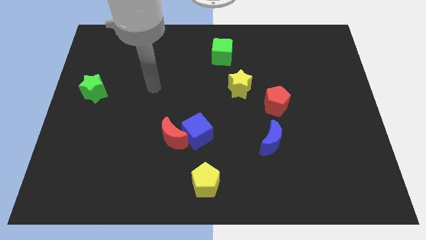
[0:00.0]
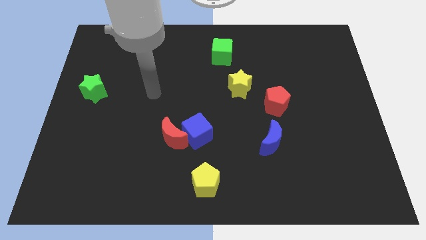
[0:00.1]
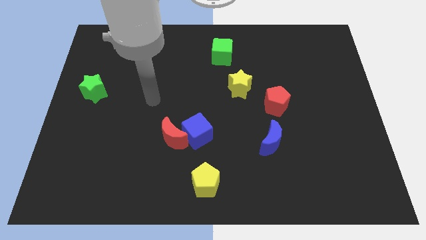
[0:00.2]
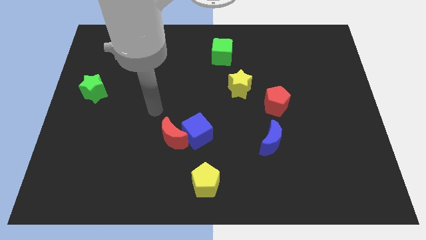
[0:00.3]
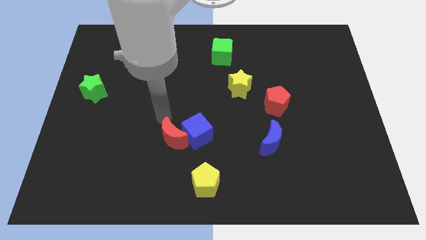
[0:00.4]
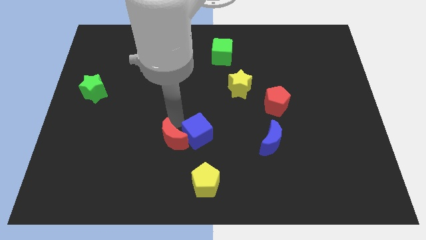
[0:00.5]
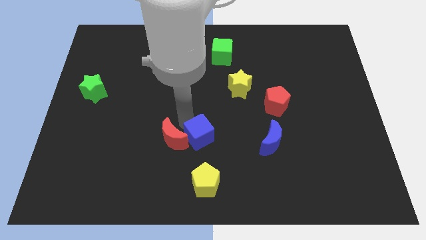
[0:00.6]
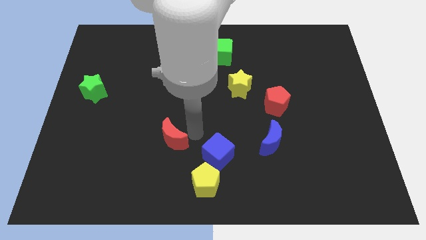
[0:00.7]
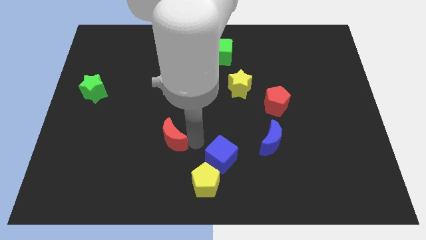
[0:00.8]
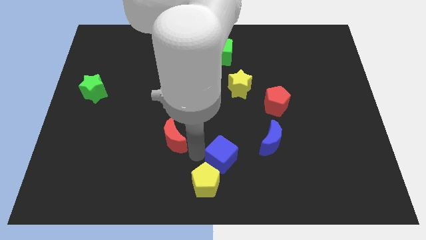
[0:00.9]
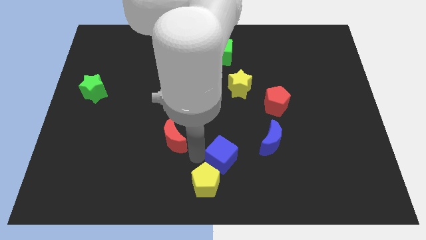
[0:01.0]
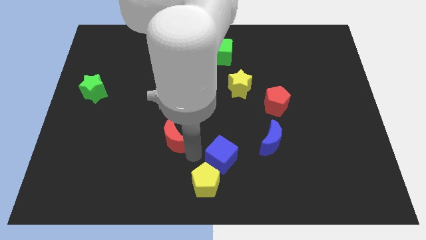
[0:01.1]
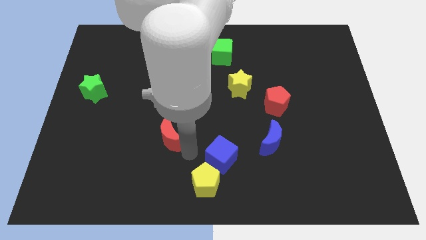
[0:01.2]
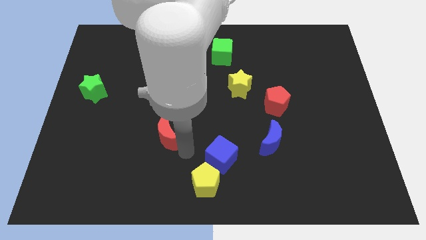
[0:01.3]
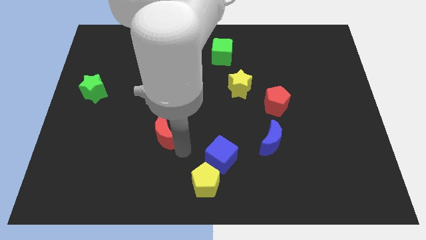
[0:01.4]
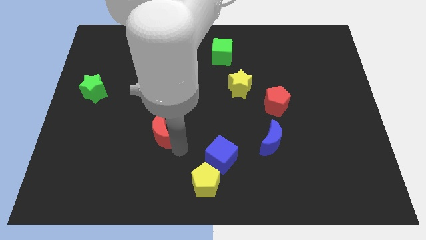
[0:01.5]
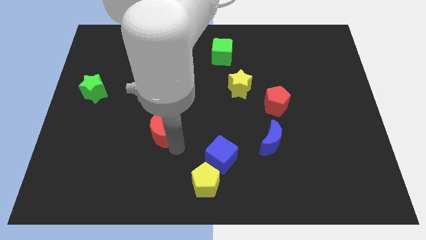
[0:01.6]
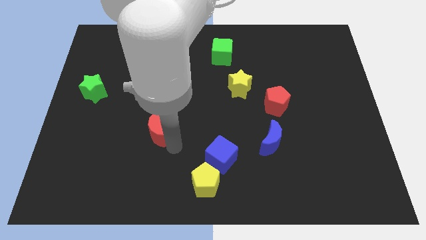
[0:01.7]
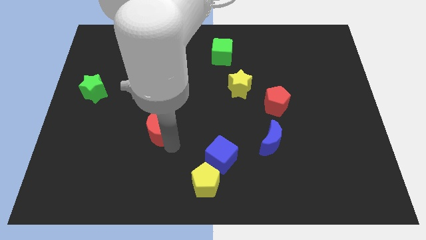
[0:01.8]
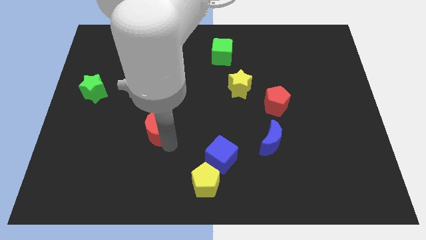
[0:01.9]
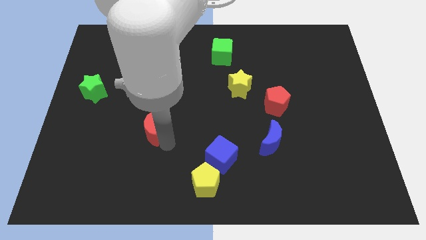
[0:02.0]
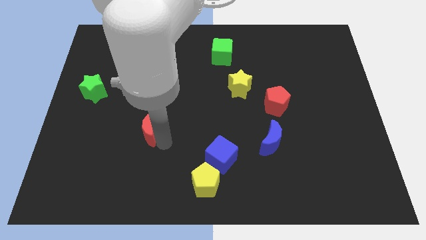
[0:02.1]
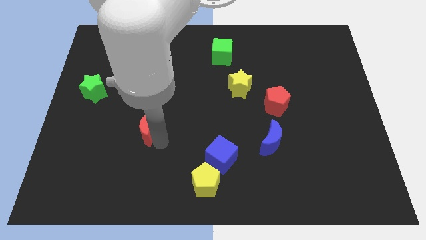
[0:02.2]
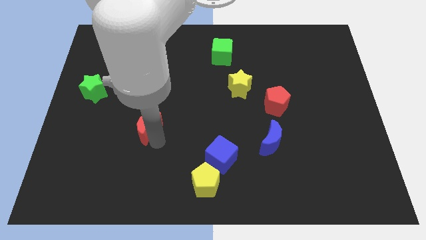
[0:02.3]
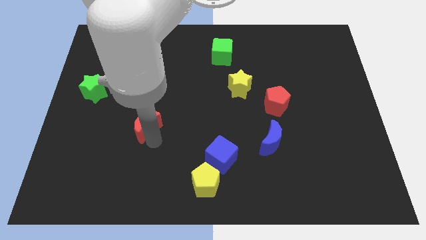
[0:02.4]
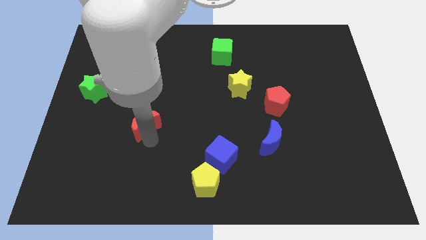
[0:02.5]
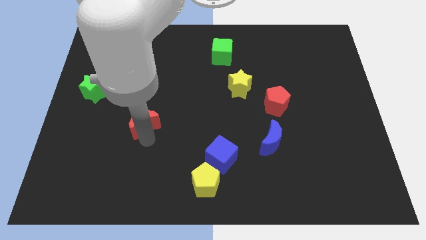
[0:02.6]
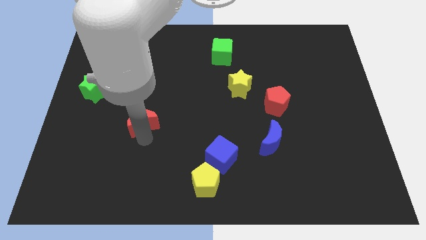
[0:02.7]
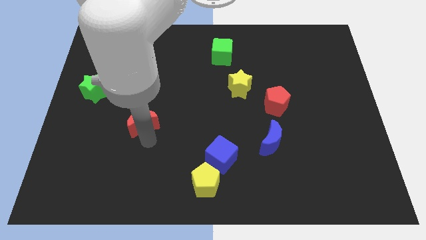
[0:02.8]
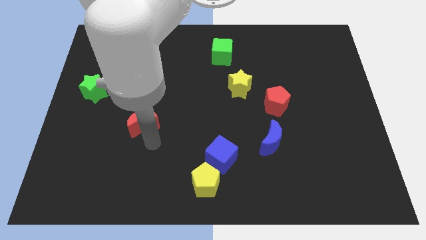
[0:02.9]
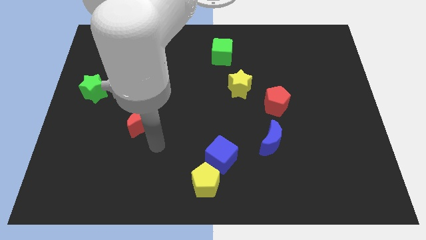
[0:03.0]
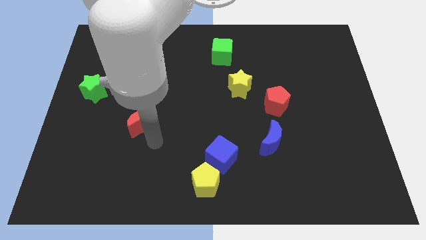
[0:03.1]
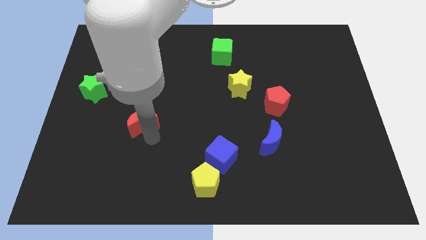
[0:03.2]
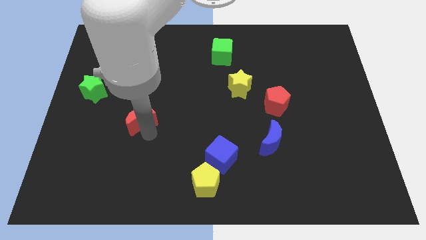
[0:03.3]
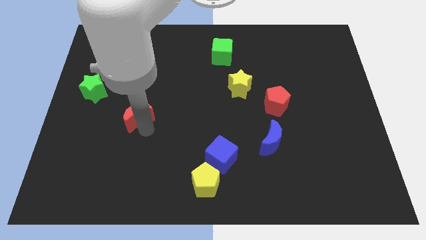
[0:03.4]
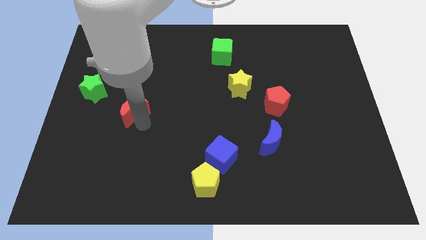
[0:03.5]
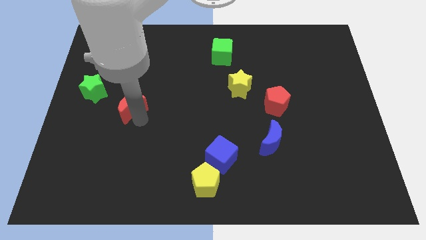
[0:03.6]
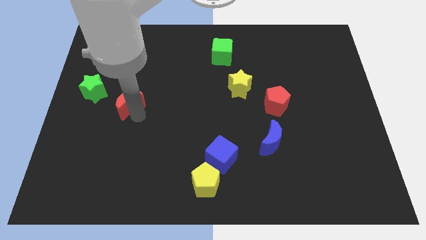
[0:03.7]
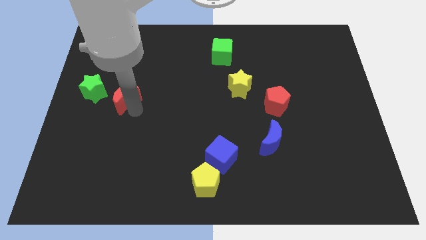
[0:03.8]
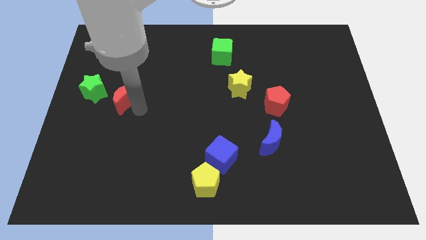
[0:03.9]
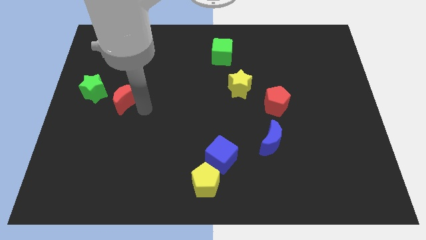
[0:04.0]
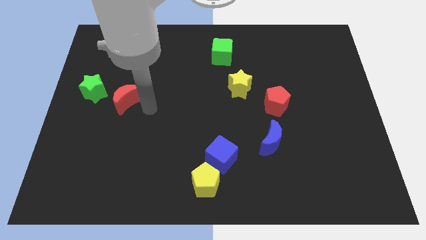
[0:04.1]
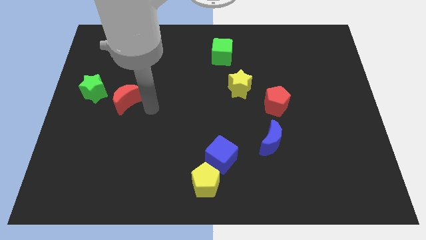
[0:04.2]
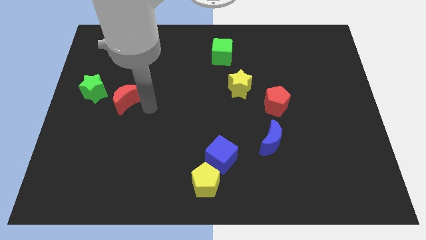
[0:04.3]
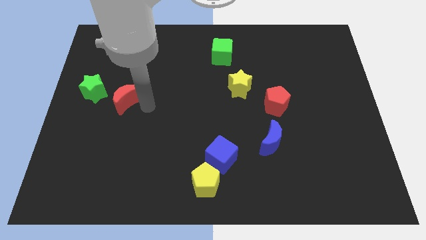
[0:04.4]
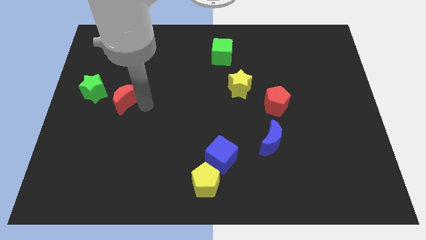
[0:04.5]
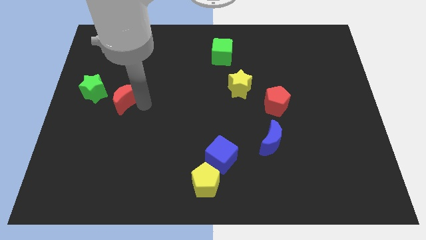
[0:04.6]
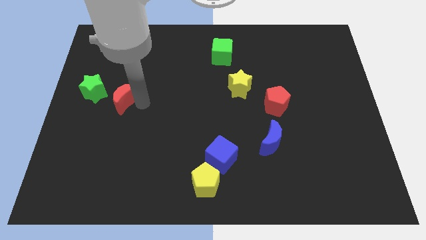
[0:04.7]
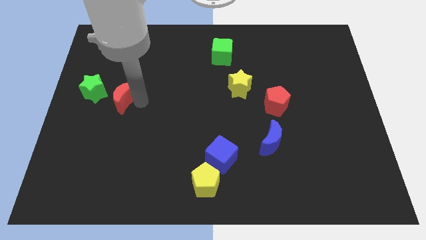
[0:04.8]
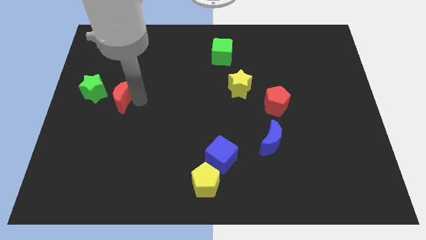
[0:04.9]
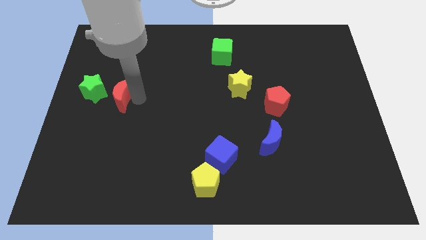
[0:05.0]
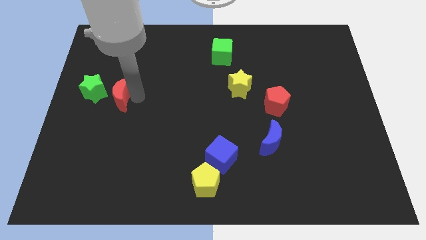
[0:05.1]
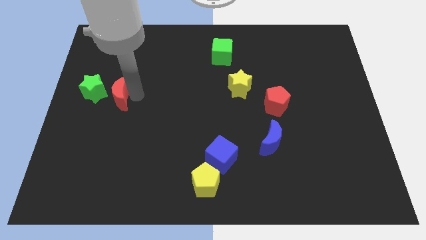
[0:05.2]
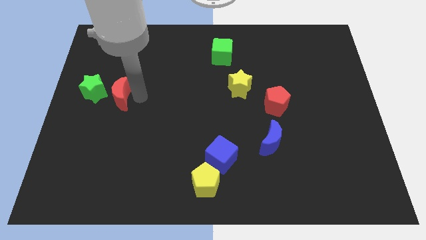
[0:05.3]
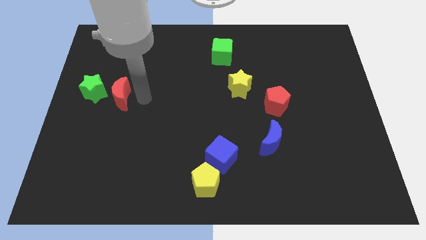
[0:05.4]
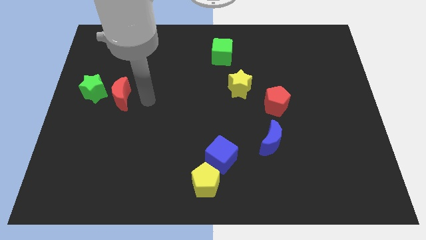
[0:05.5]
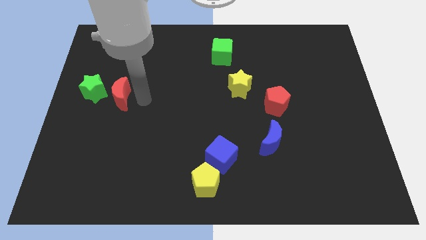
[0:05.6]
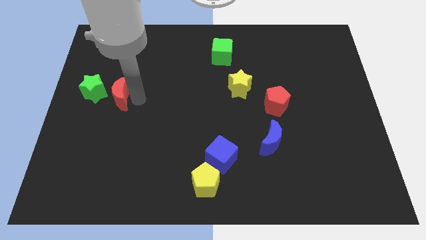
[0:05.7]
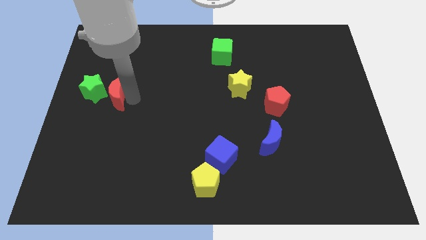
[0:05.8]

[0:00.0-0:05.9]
put the red moon close to the green star

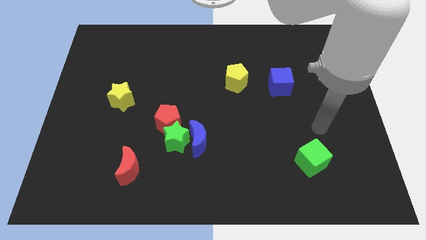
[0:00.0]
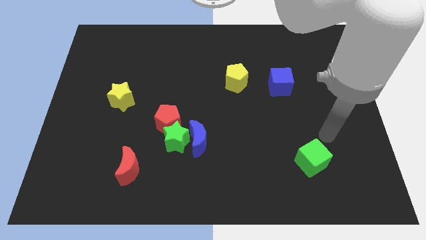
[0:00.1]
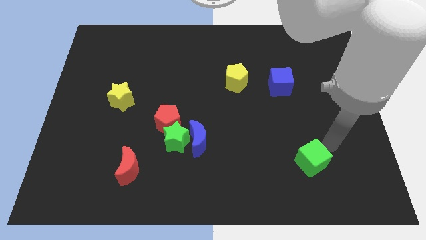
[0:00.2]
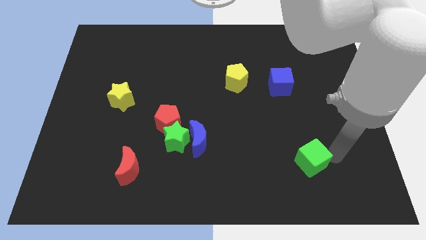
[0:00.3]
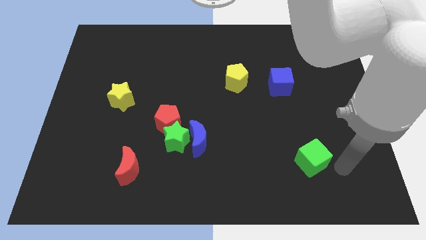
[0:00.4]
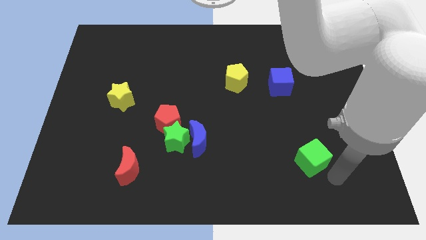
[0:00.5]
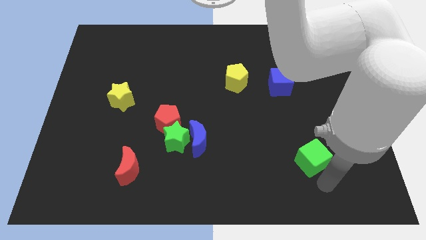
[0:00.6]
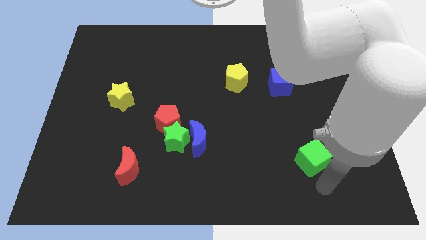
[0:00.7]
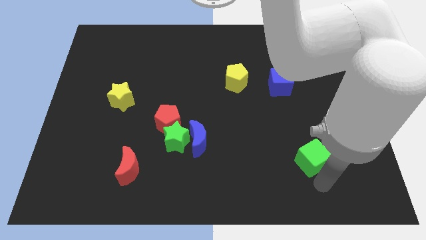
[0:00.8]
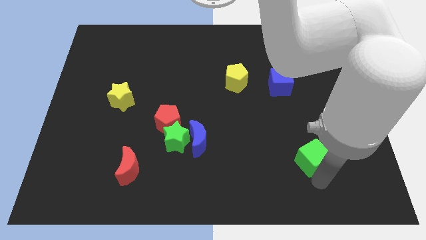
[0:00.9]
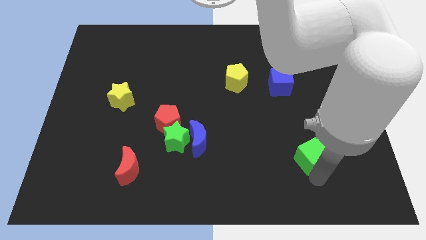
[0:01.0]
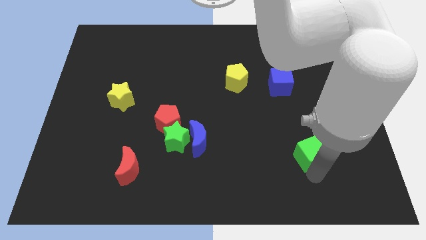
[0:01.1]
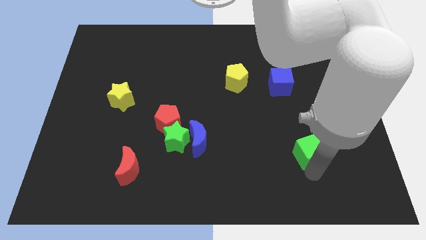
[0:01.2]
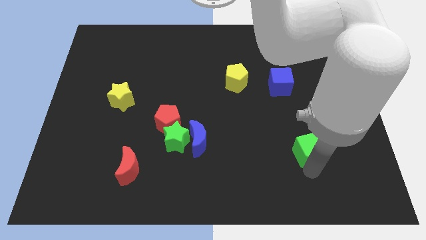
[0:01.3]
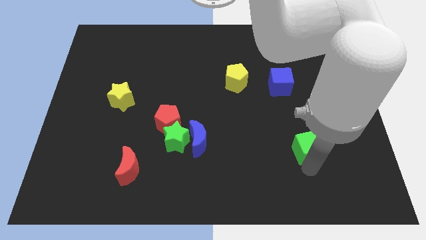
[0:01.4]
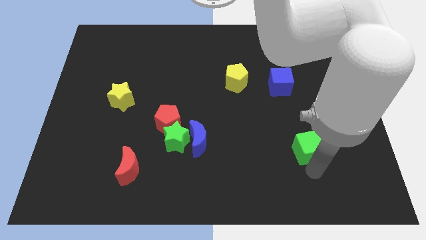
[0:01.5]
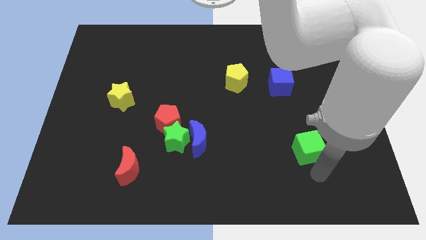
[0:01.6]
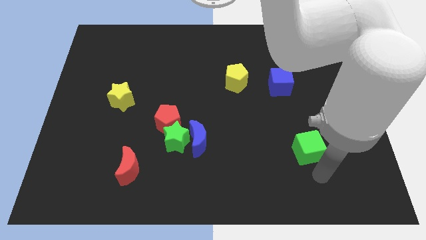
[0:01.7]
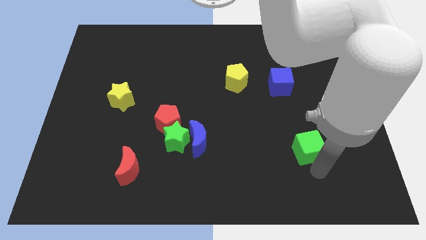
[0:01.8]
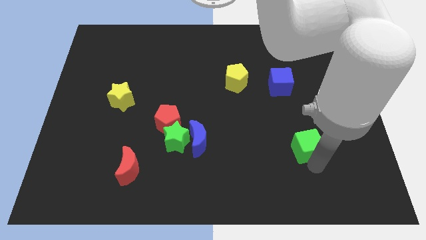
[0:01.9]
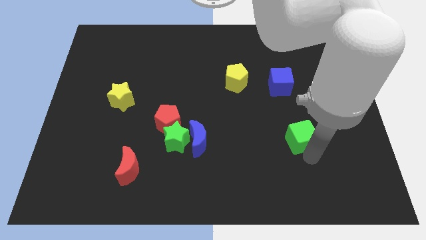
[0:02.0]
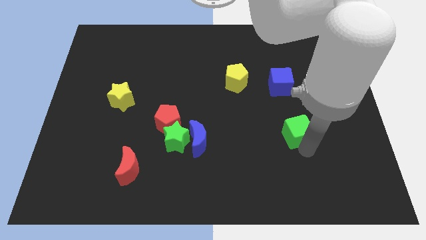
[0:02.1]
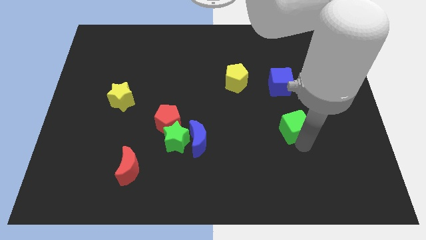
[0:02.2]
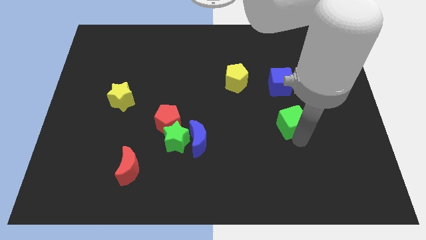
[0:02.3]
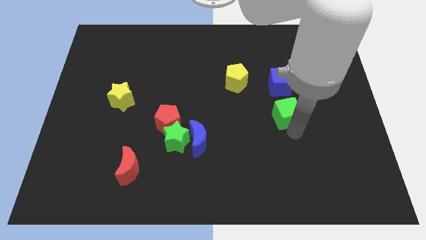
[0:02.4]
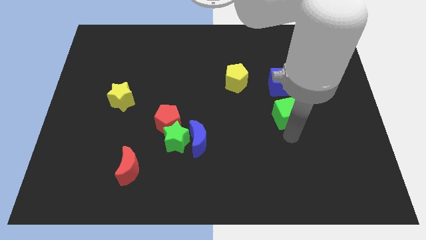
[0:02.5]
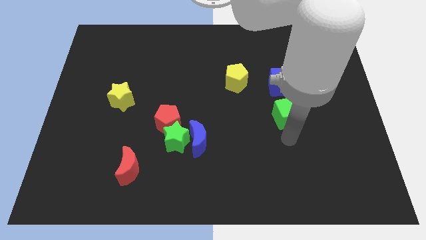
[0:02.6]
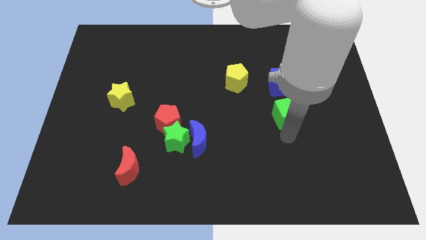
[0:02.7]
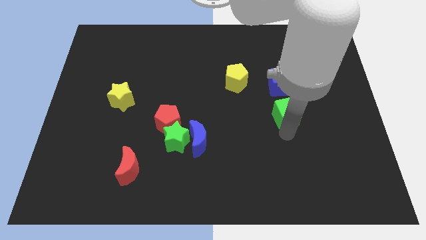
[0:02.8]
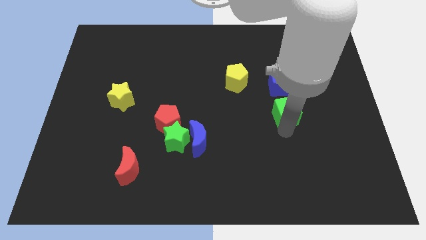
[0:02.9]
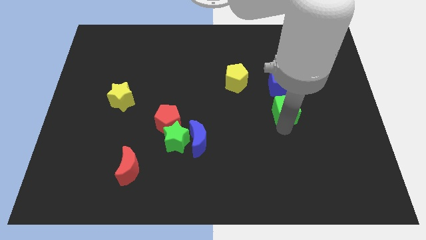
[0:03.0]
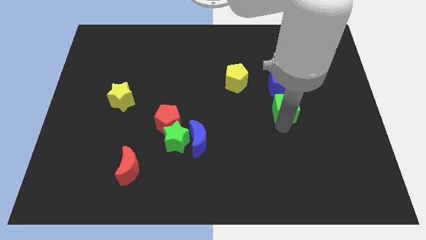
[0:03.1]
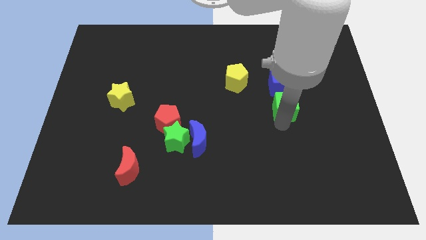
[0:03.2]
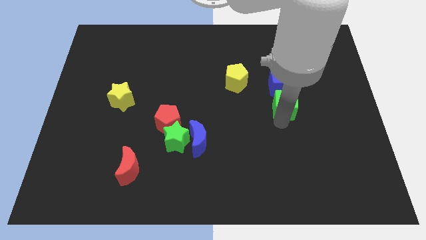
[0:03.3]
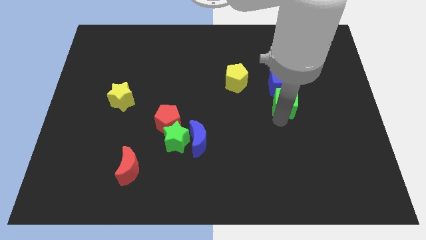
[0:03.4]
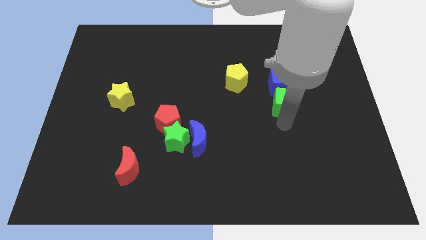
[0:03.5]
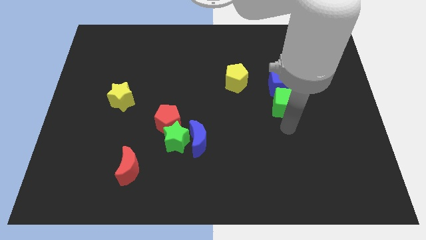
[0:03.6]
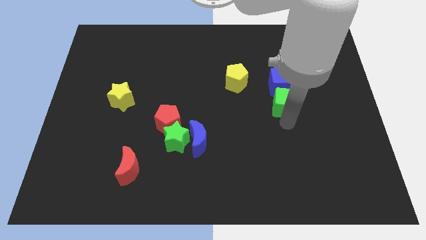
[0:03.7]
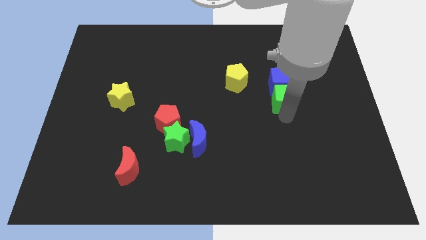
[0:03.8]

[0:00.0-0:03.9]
move the green cube close to the blue cube
